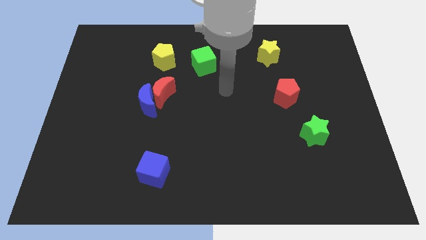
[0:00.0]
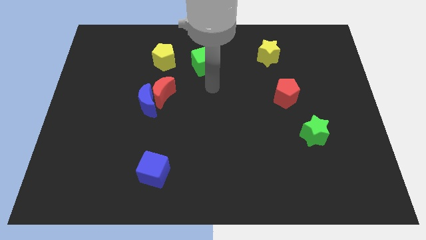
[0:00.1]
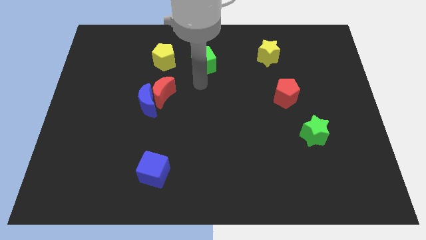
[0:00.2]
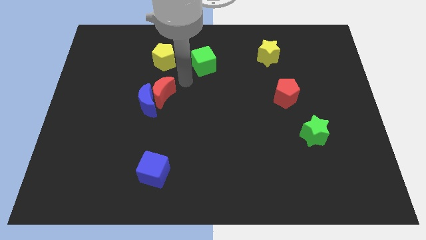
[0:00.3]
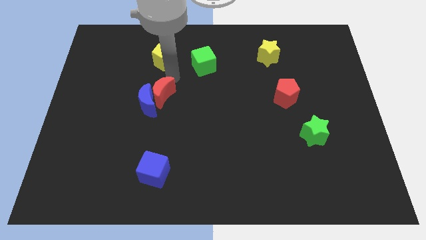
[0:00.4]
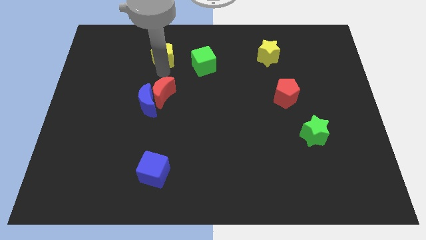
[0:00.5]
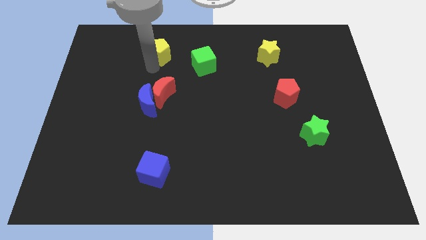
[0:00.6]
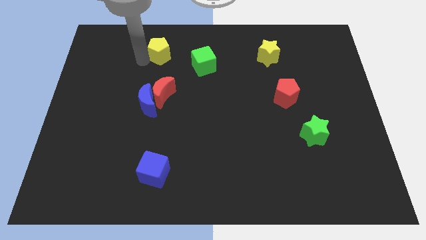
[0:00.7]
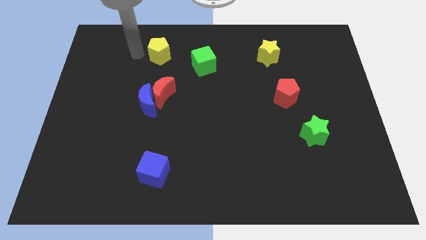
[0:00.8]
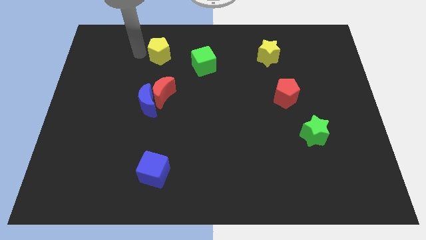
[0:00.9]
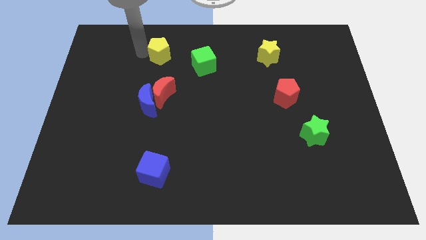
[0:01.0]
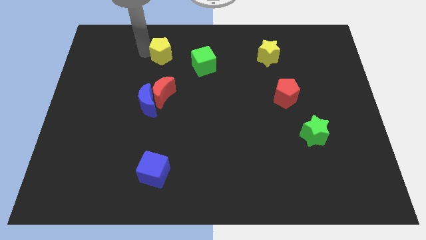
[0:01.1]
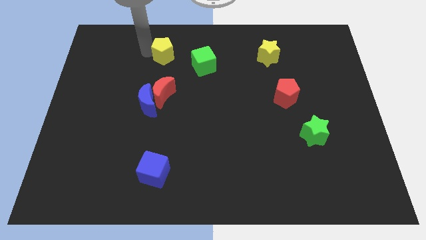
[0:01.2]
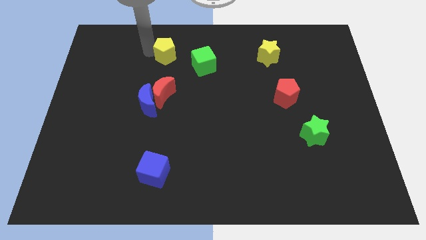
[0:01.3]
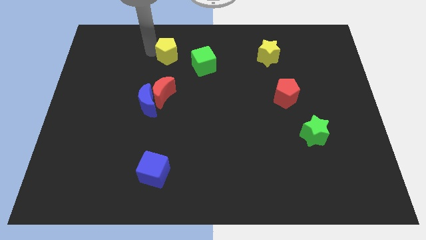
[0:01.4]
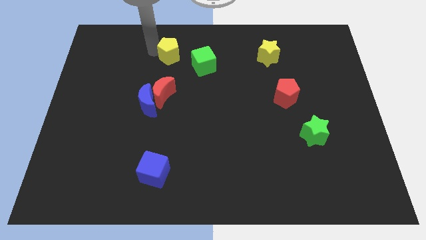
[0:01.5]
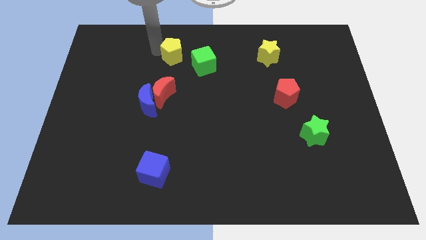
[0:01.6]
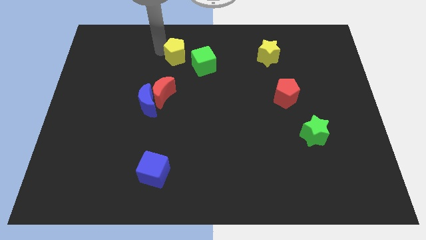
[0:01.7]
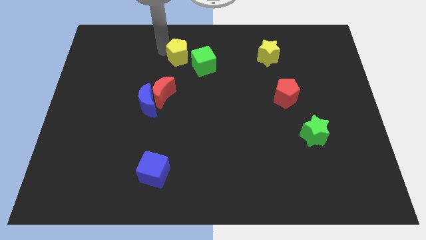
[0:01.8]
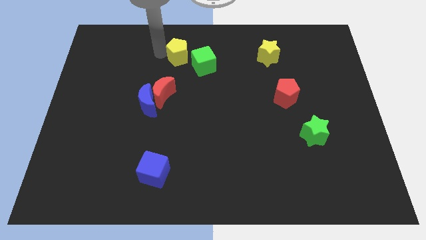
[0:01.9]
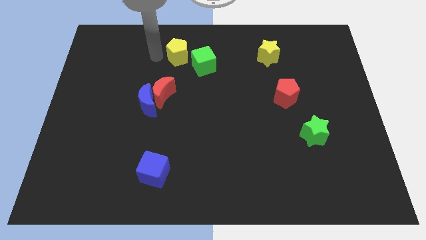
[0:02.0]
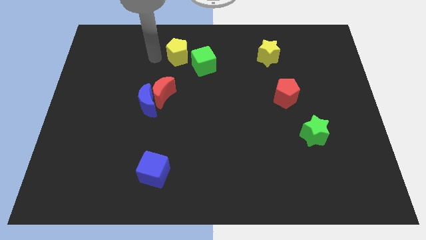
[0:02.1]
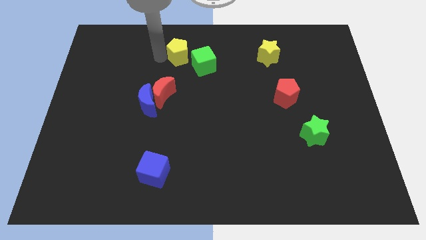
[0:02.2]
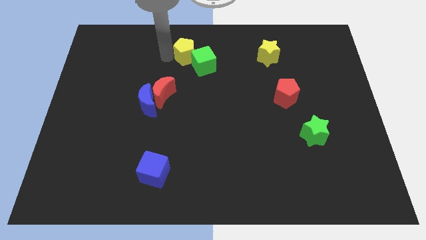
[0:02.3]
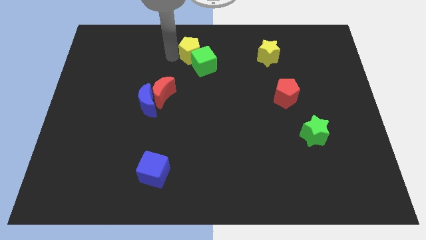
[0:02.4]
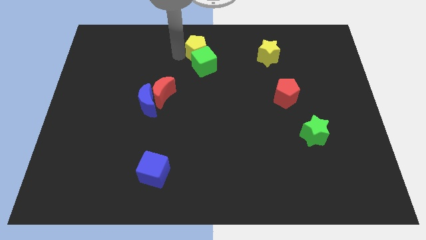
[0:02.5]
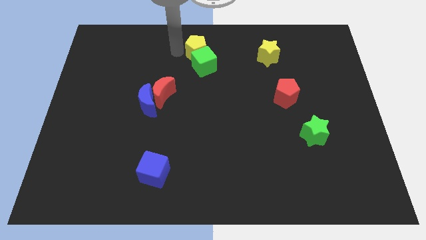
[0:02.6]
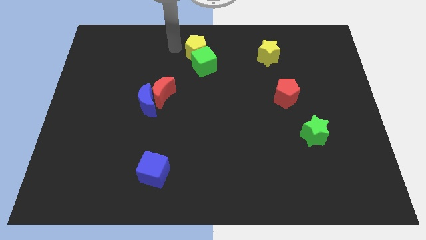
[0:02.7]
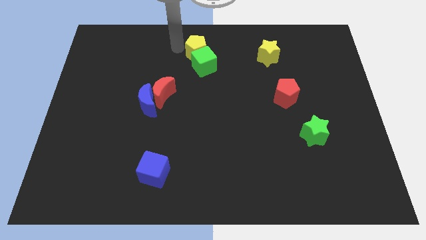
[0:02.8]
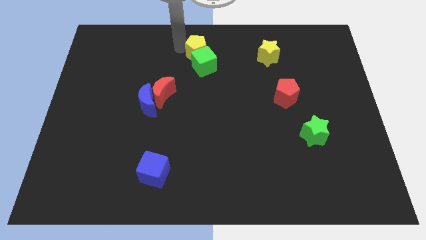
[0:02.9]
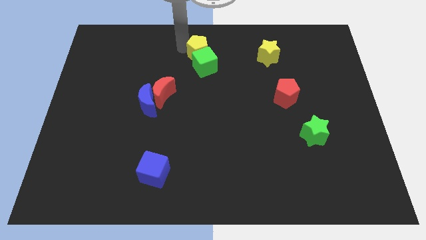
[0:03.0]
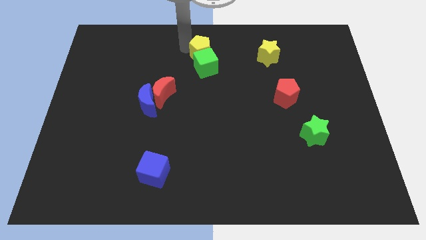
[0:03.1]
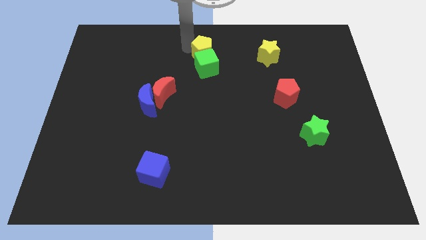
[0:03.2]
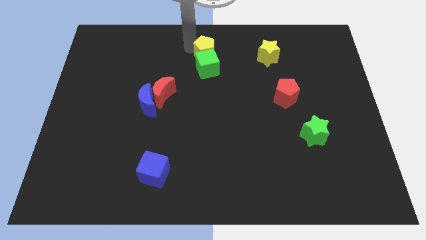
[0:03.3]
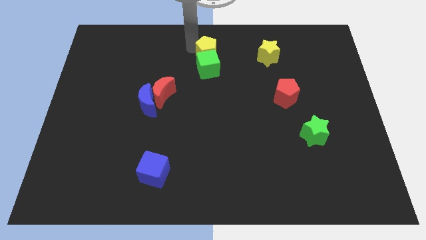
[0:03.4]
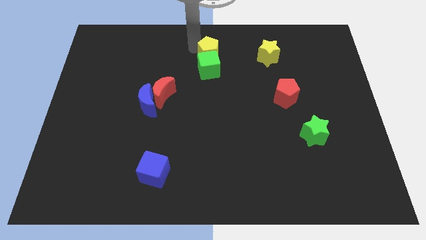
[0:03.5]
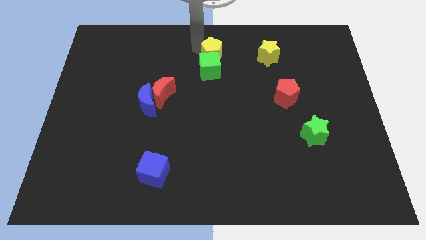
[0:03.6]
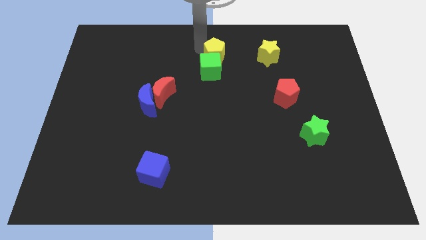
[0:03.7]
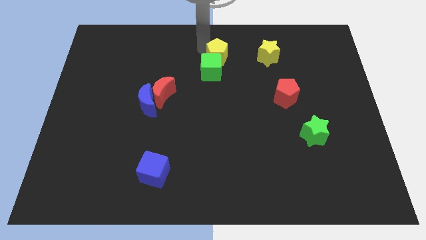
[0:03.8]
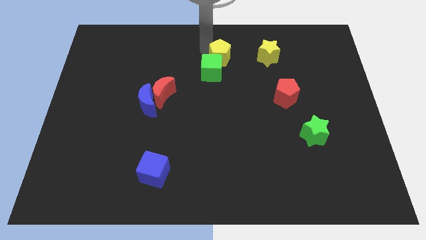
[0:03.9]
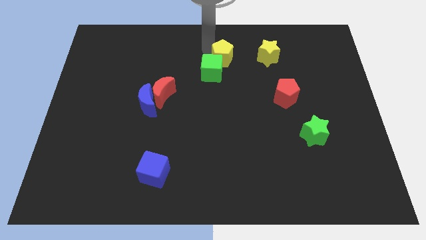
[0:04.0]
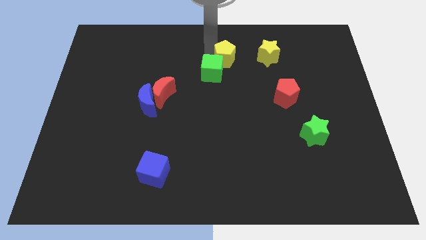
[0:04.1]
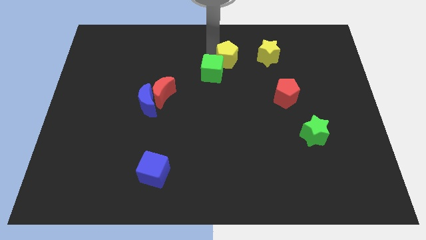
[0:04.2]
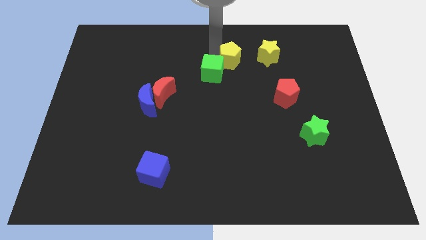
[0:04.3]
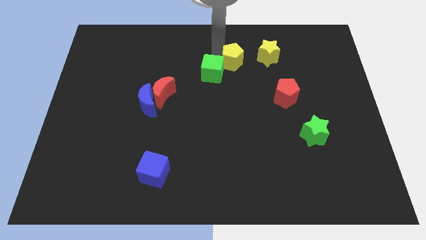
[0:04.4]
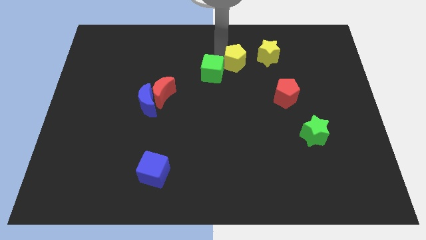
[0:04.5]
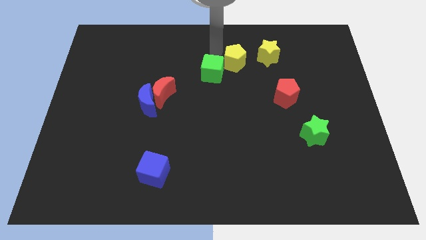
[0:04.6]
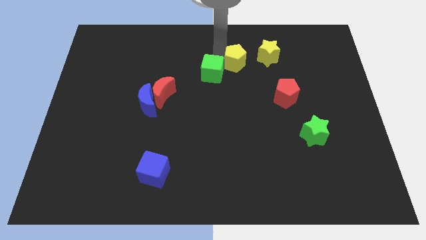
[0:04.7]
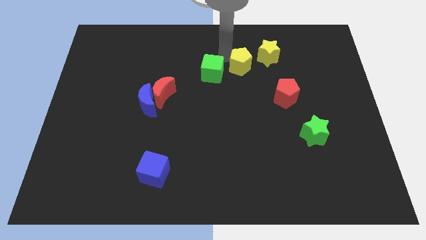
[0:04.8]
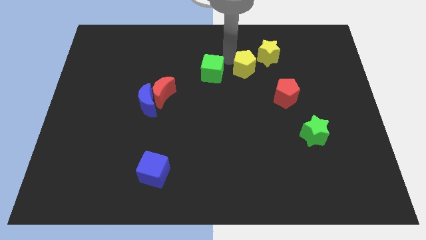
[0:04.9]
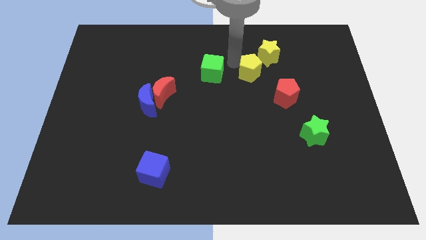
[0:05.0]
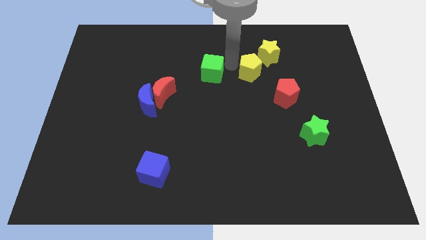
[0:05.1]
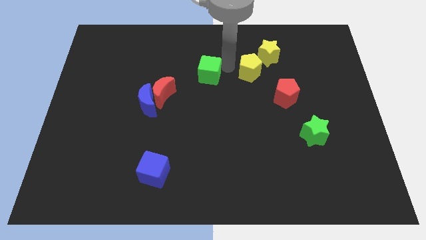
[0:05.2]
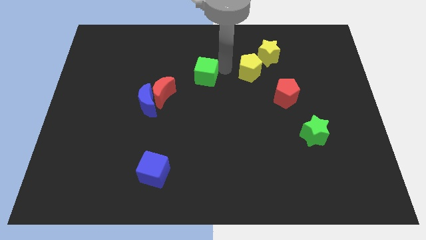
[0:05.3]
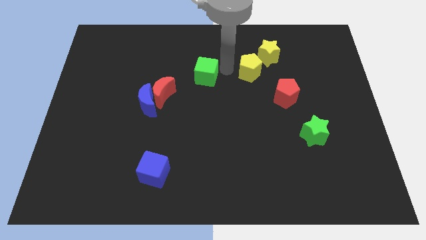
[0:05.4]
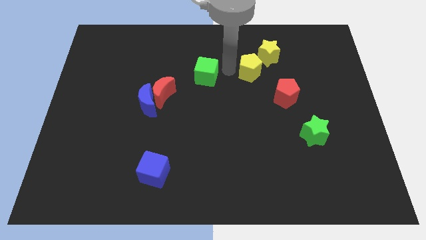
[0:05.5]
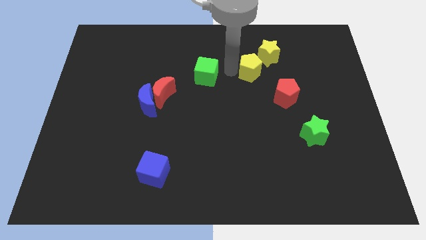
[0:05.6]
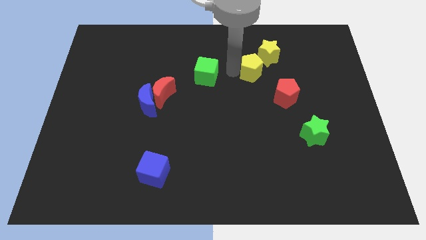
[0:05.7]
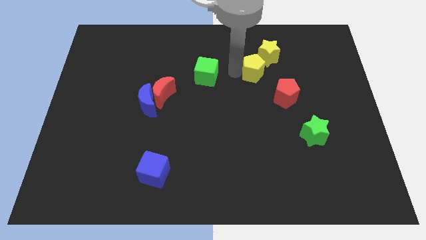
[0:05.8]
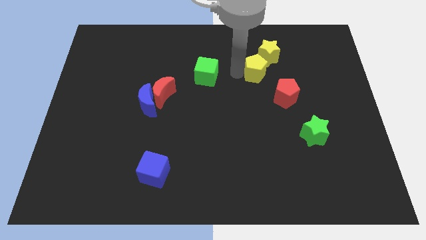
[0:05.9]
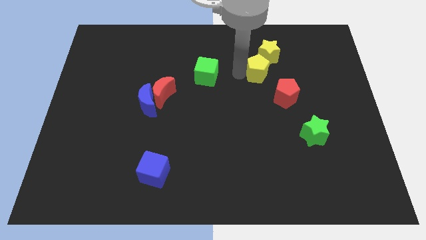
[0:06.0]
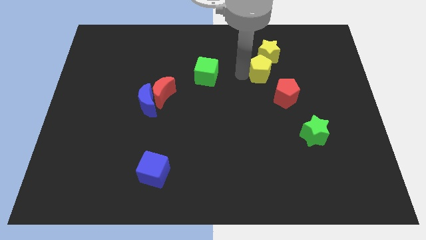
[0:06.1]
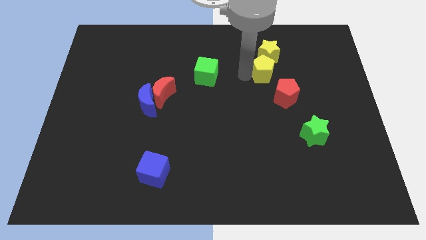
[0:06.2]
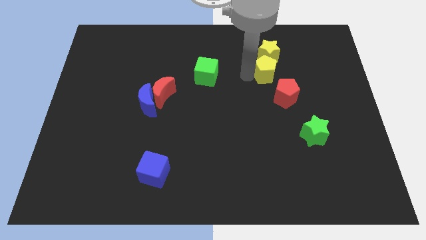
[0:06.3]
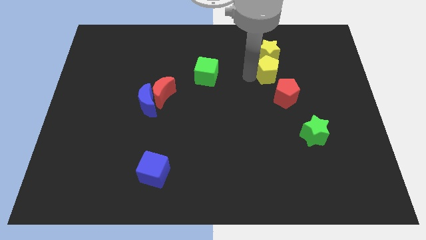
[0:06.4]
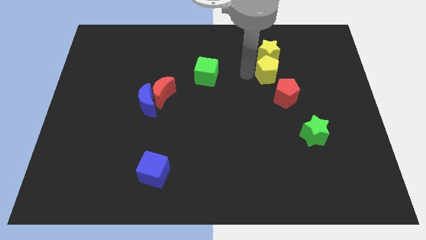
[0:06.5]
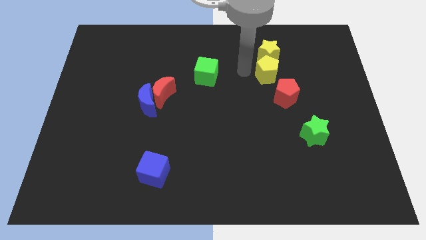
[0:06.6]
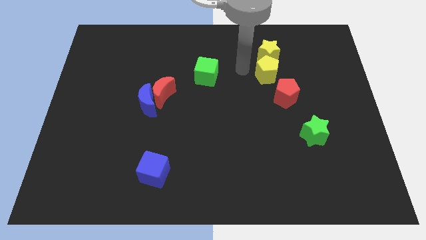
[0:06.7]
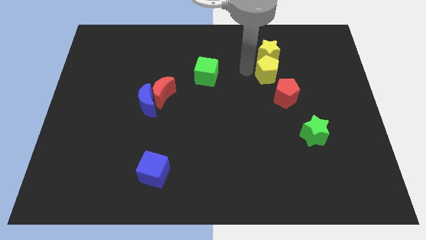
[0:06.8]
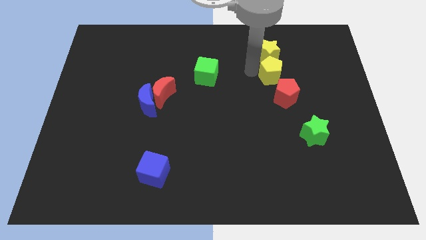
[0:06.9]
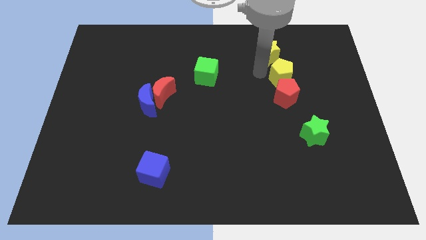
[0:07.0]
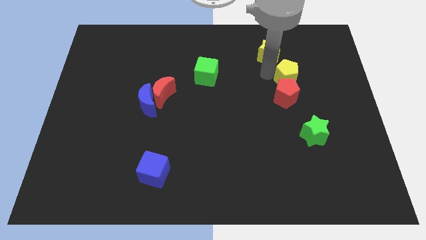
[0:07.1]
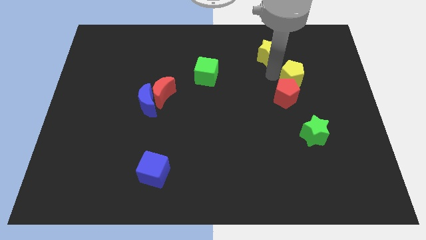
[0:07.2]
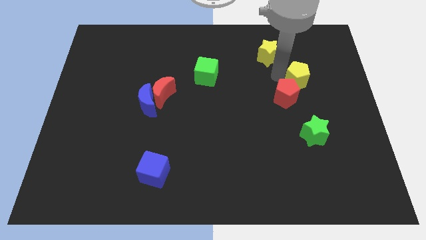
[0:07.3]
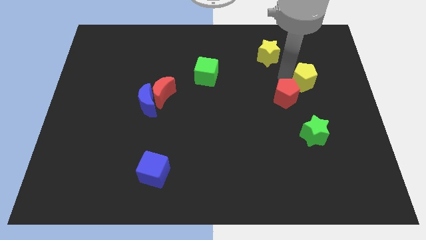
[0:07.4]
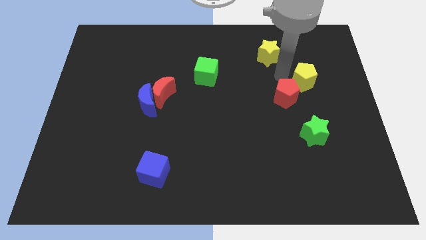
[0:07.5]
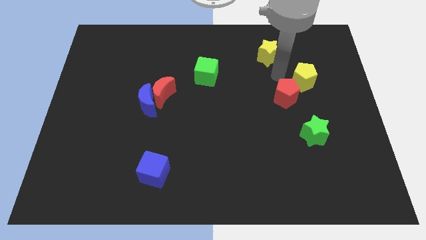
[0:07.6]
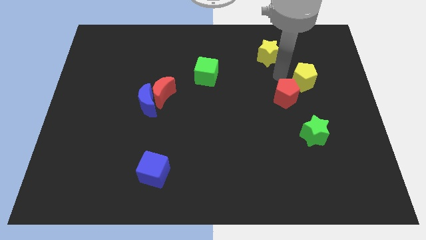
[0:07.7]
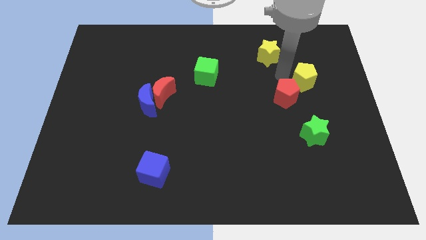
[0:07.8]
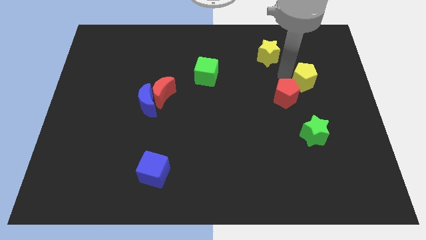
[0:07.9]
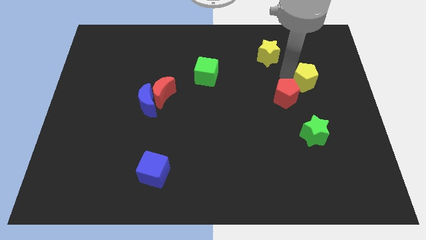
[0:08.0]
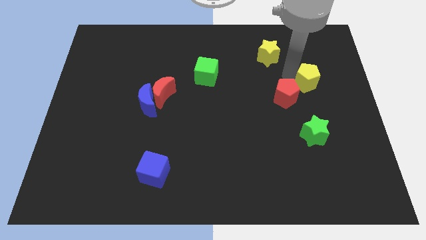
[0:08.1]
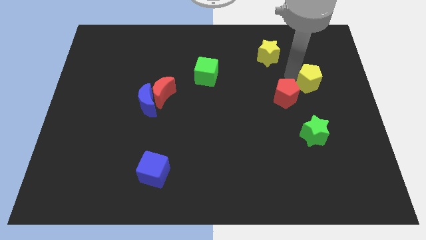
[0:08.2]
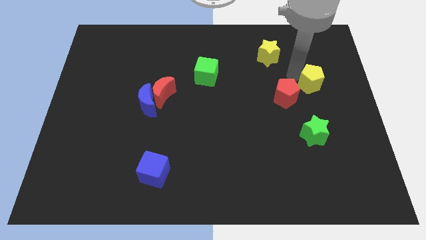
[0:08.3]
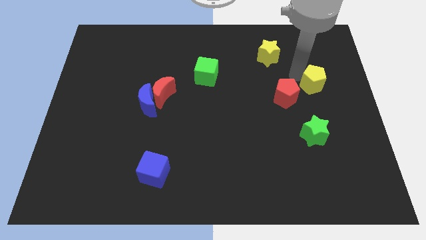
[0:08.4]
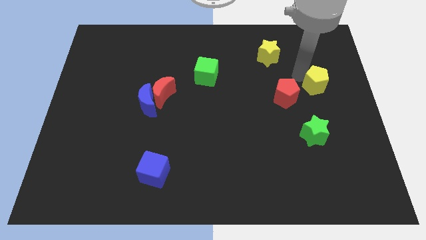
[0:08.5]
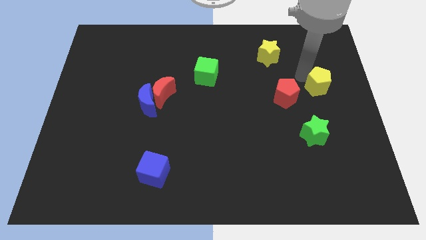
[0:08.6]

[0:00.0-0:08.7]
put the yellow pentagon to the center right
